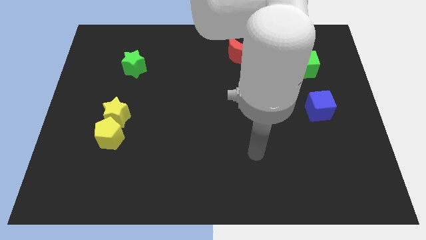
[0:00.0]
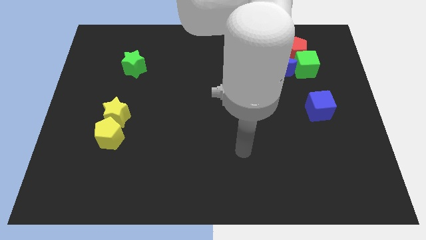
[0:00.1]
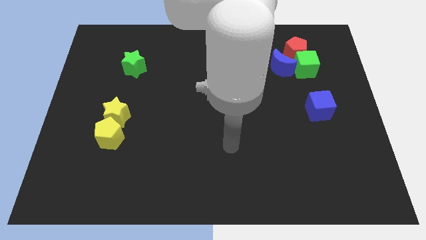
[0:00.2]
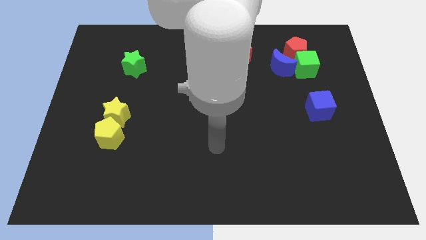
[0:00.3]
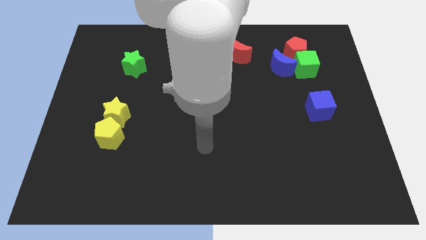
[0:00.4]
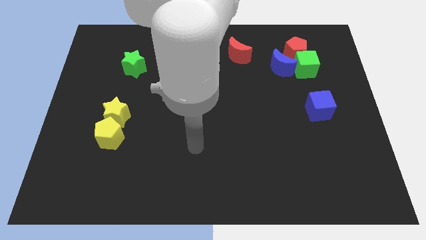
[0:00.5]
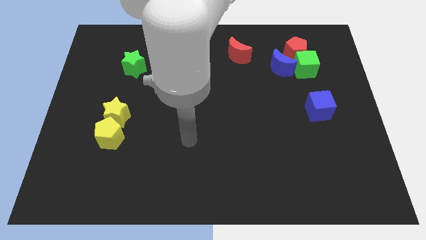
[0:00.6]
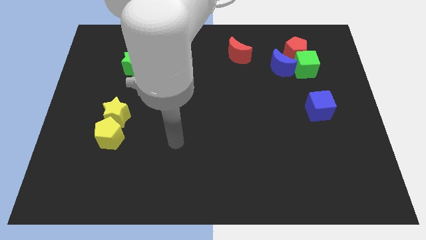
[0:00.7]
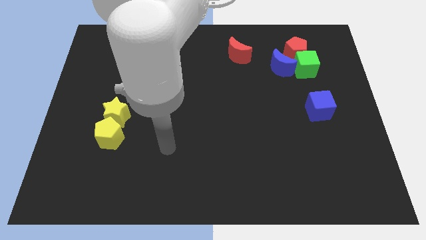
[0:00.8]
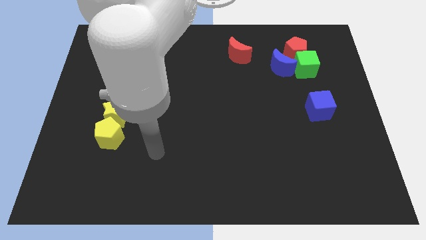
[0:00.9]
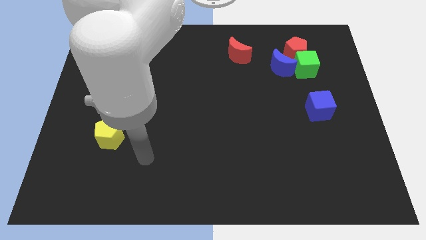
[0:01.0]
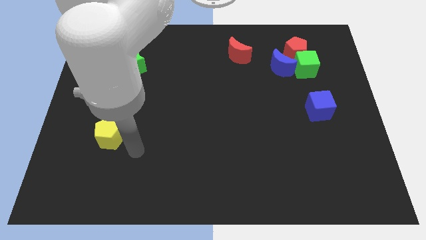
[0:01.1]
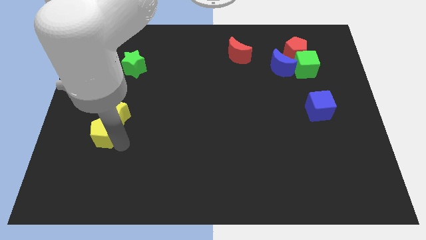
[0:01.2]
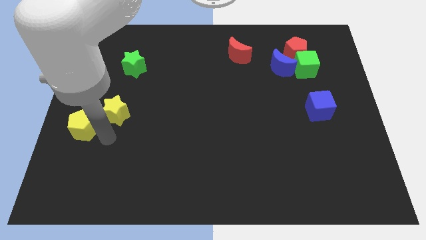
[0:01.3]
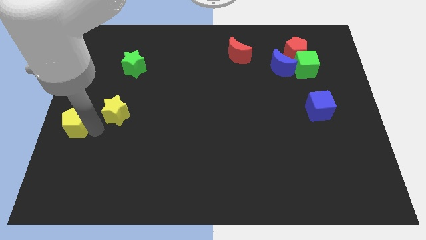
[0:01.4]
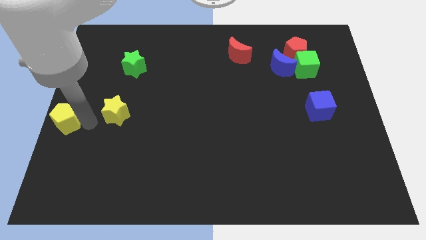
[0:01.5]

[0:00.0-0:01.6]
move the yellow star away from the yellow pentagon

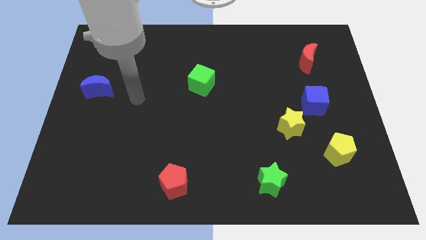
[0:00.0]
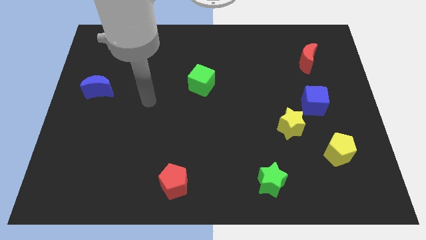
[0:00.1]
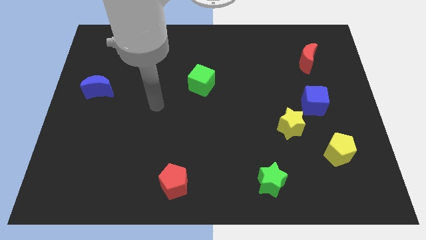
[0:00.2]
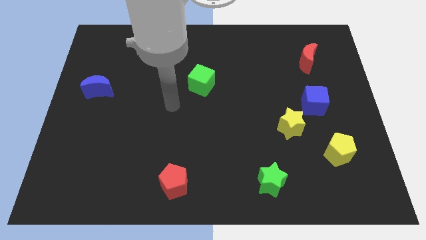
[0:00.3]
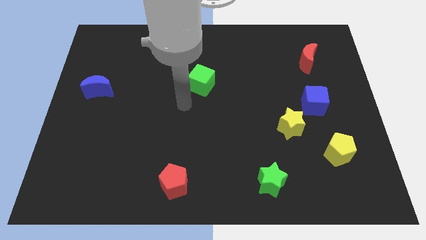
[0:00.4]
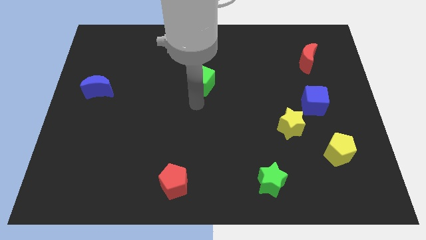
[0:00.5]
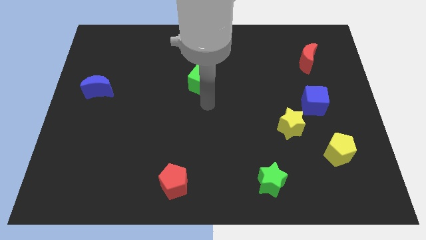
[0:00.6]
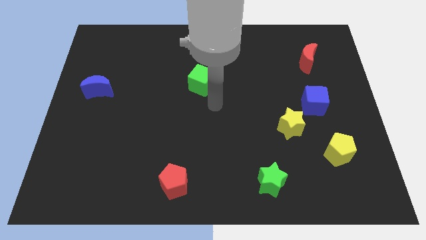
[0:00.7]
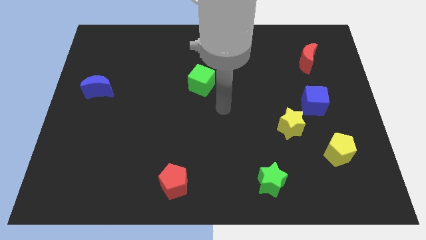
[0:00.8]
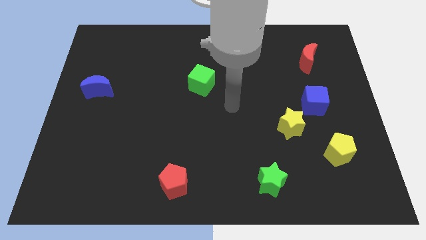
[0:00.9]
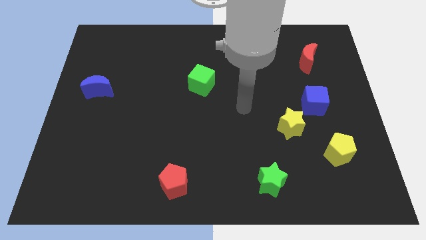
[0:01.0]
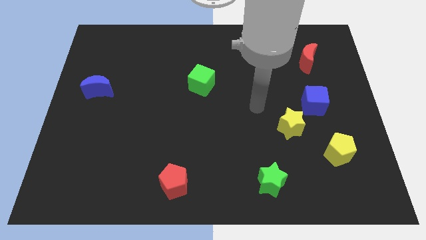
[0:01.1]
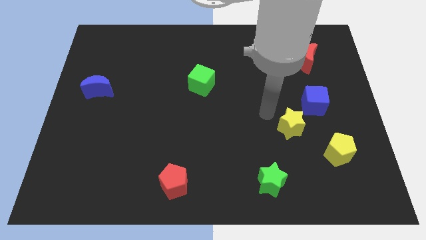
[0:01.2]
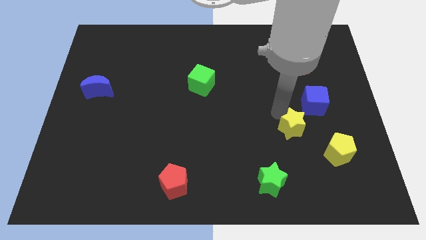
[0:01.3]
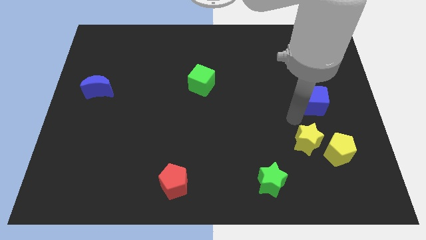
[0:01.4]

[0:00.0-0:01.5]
move the blue cube away from the yellow star

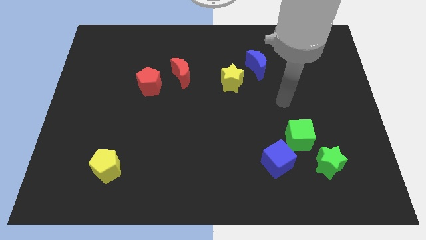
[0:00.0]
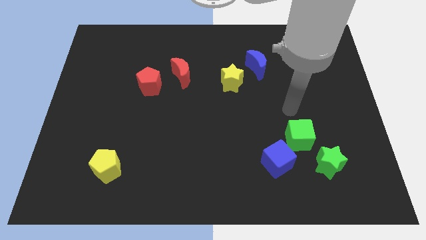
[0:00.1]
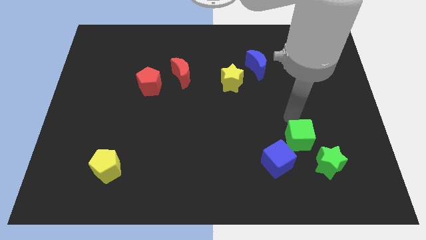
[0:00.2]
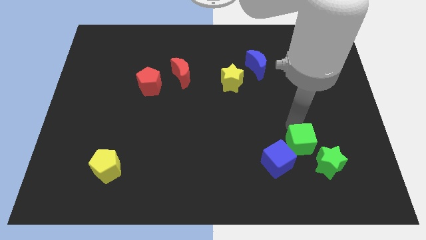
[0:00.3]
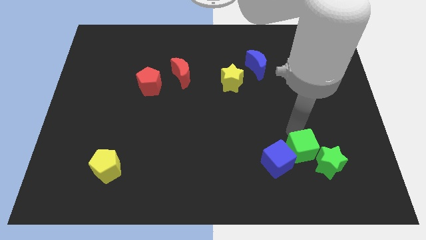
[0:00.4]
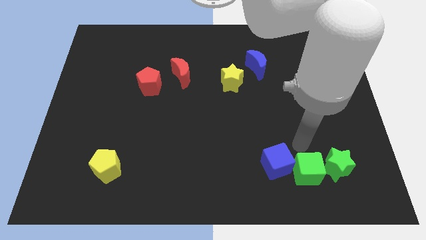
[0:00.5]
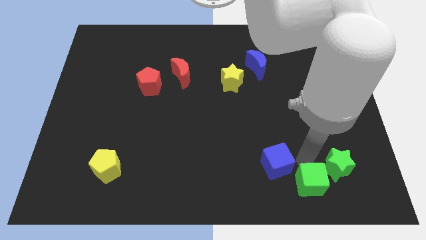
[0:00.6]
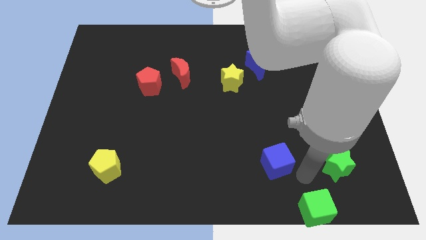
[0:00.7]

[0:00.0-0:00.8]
move the blue cube away from the green cube

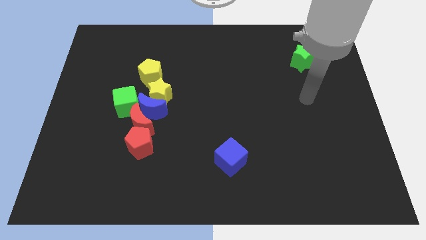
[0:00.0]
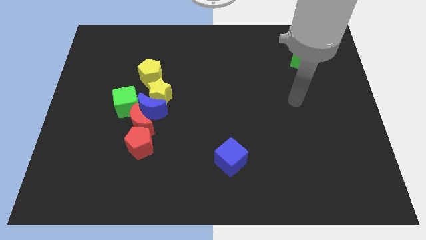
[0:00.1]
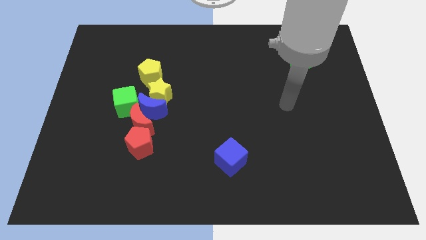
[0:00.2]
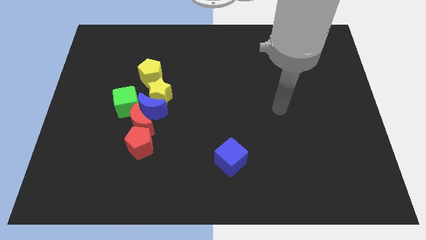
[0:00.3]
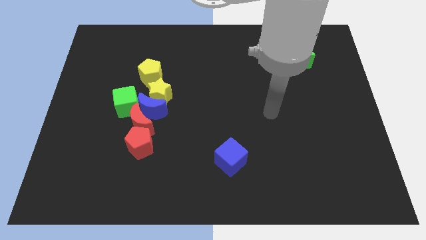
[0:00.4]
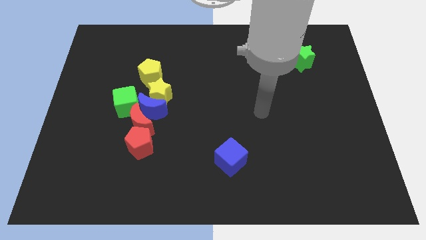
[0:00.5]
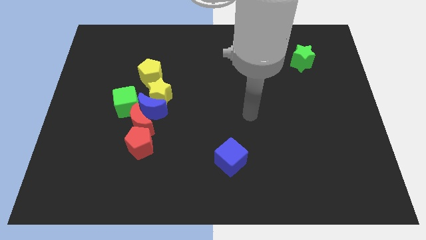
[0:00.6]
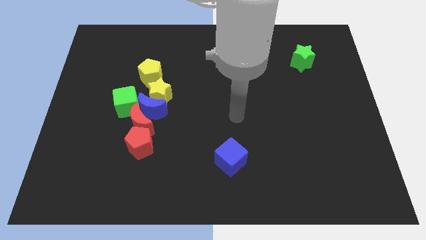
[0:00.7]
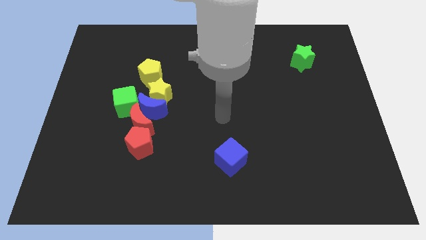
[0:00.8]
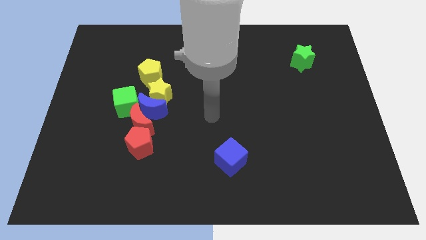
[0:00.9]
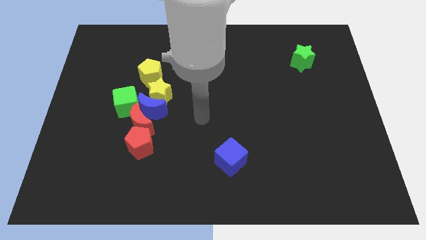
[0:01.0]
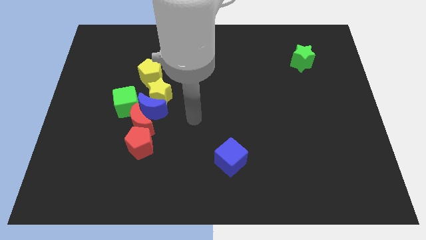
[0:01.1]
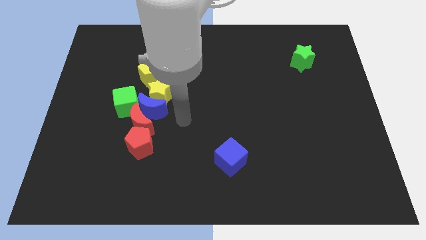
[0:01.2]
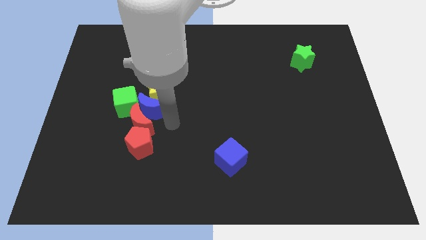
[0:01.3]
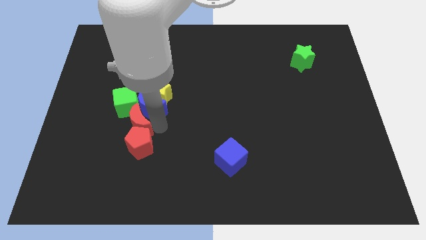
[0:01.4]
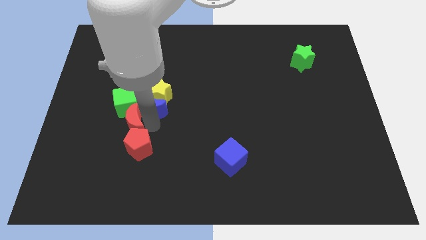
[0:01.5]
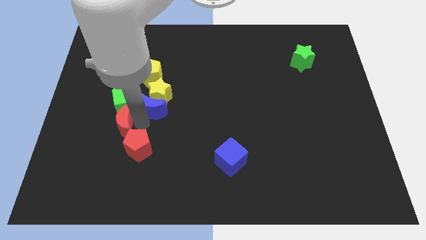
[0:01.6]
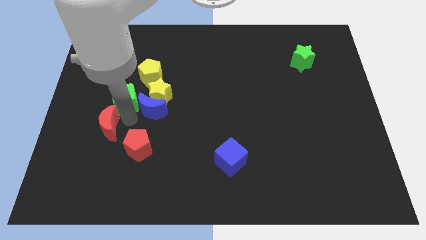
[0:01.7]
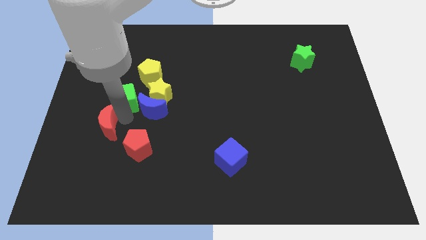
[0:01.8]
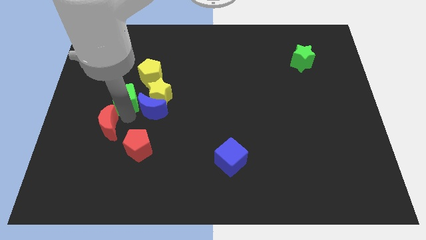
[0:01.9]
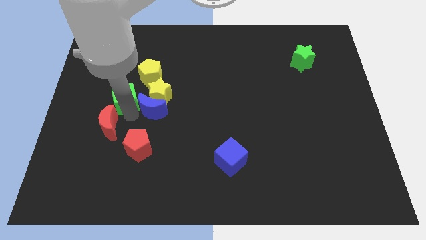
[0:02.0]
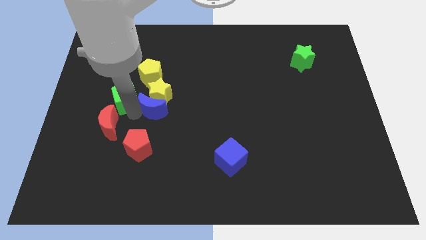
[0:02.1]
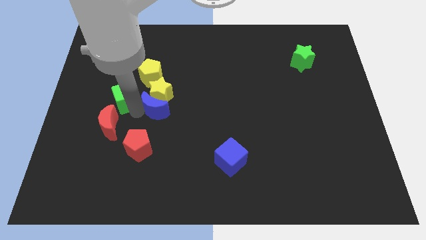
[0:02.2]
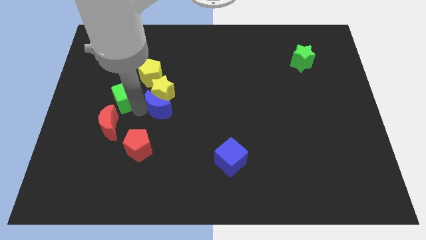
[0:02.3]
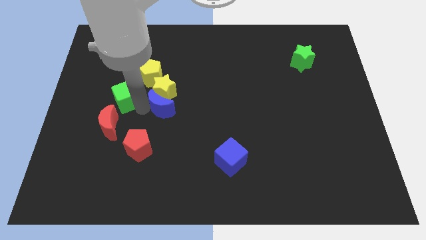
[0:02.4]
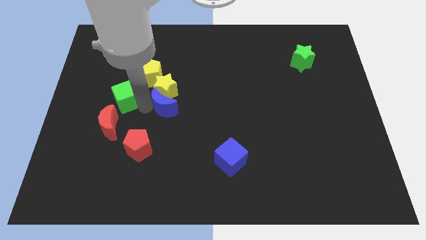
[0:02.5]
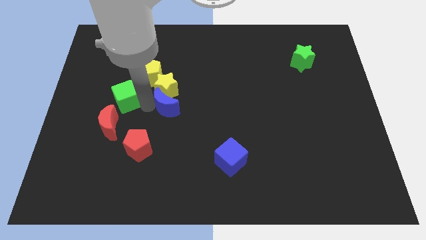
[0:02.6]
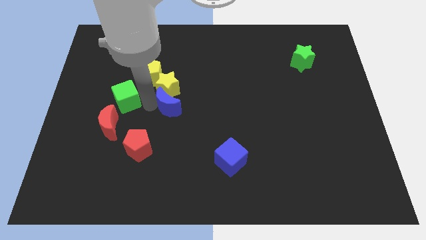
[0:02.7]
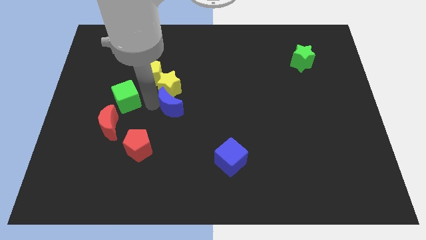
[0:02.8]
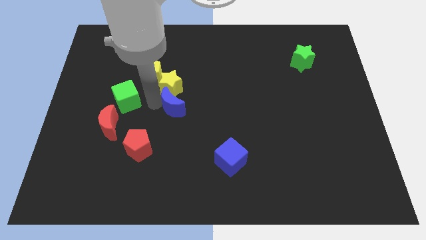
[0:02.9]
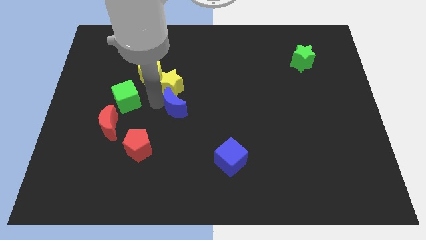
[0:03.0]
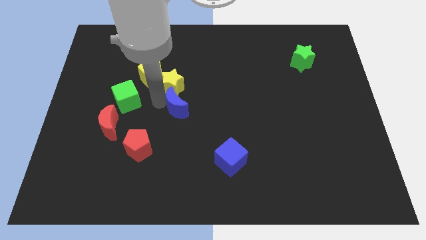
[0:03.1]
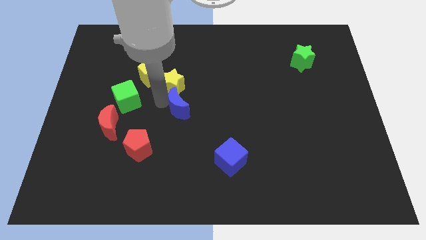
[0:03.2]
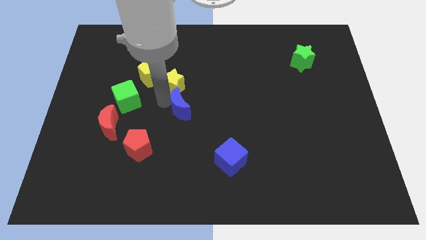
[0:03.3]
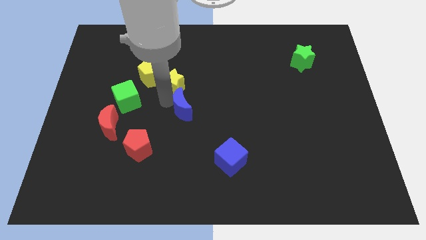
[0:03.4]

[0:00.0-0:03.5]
move the blue moon away from the group

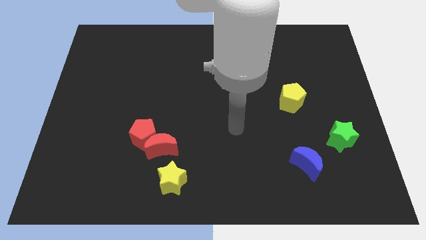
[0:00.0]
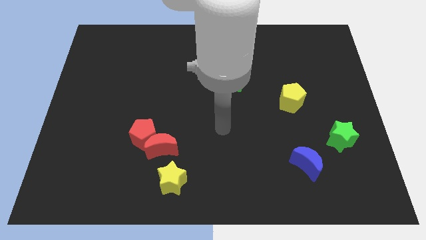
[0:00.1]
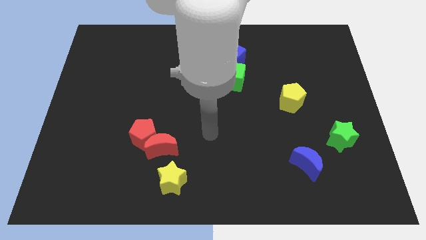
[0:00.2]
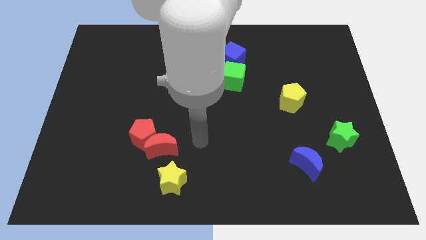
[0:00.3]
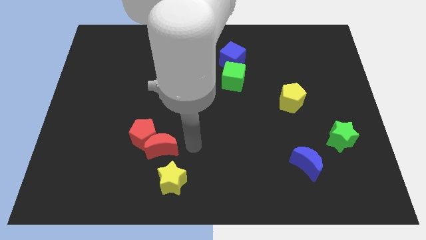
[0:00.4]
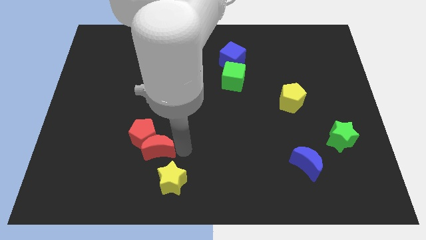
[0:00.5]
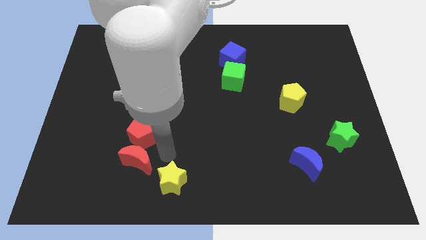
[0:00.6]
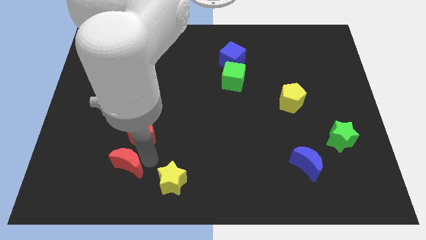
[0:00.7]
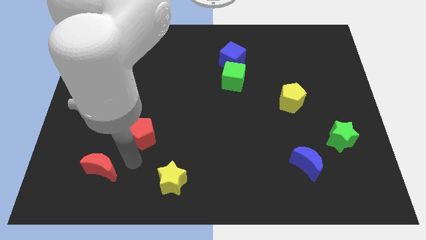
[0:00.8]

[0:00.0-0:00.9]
move the red pentagon away from the red moon

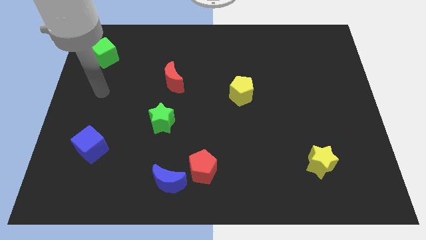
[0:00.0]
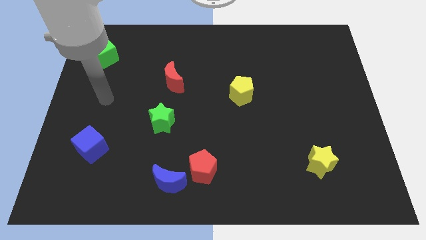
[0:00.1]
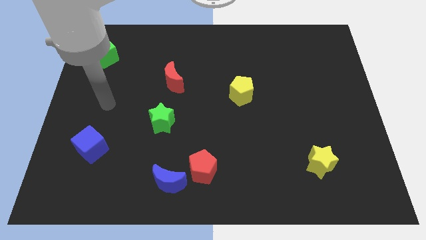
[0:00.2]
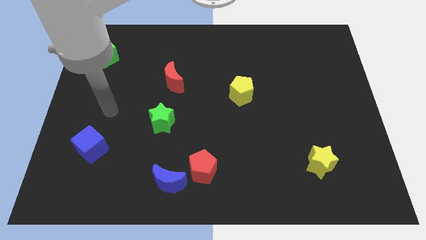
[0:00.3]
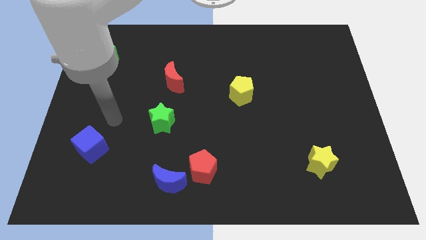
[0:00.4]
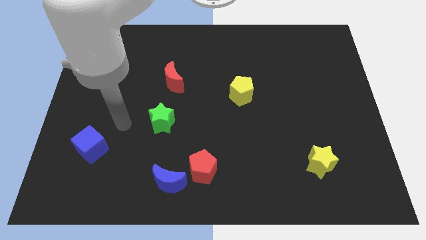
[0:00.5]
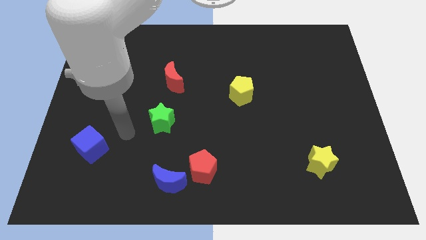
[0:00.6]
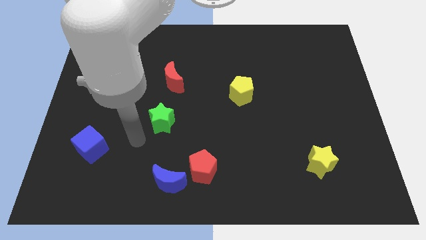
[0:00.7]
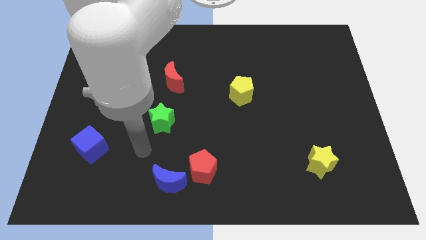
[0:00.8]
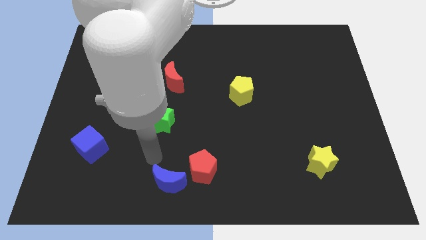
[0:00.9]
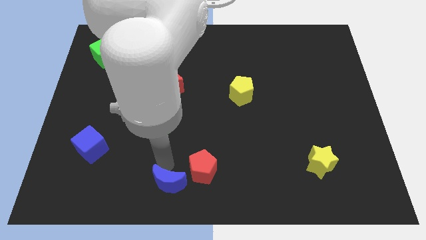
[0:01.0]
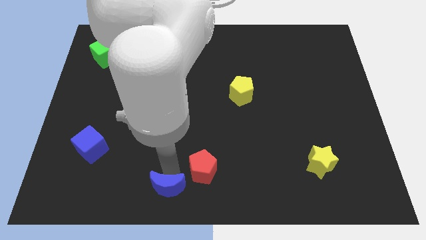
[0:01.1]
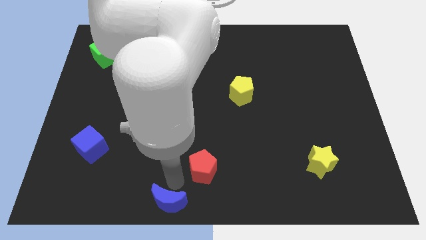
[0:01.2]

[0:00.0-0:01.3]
separate the red pentagon from the blue moon
